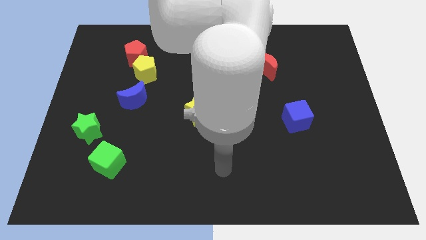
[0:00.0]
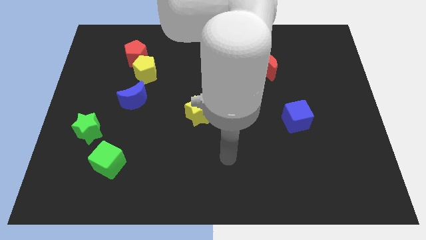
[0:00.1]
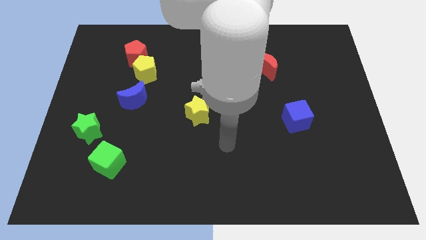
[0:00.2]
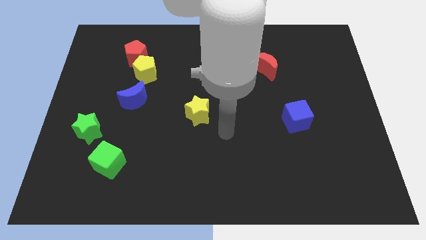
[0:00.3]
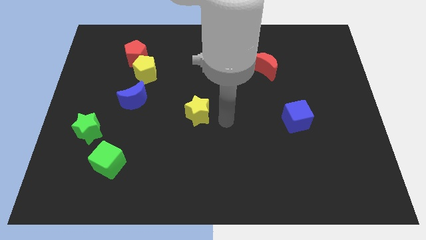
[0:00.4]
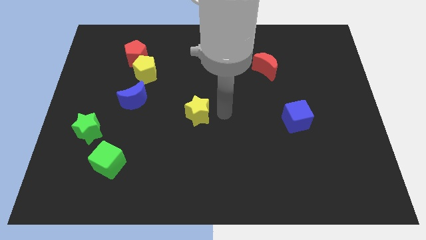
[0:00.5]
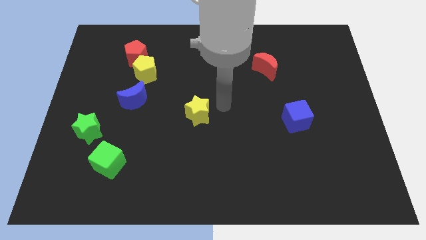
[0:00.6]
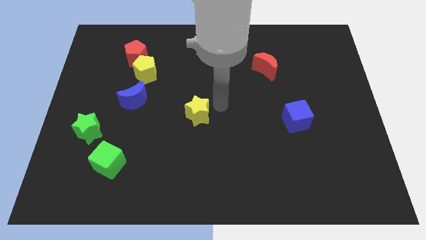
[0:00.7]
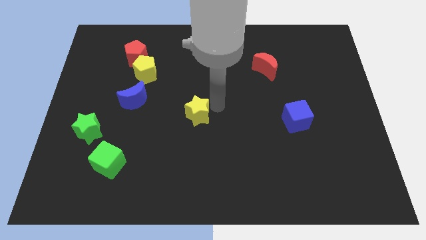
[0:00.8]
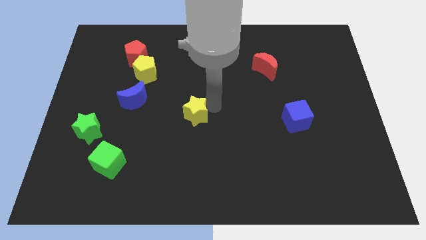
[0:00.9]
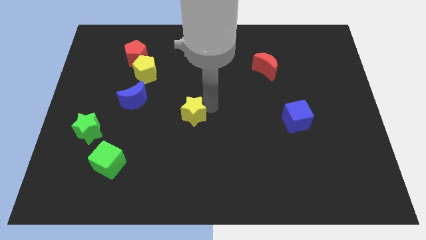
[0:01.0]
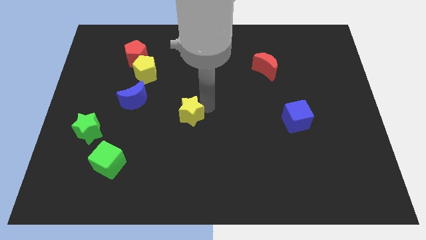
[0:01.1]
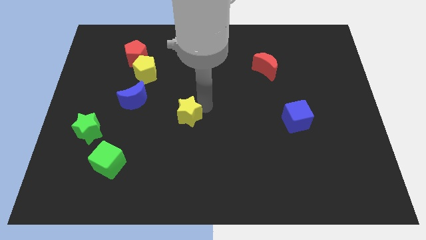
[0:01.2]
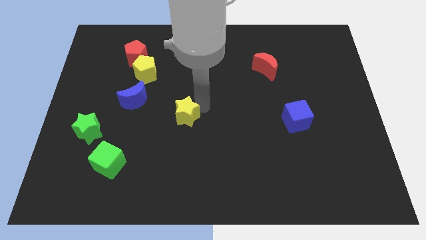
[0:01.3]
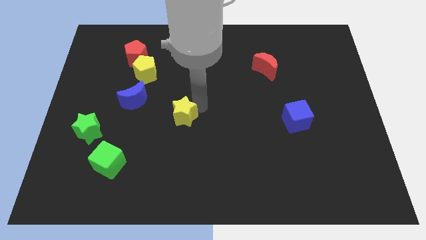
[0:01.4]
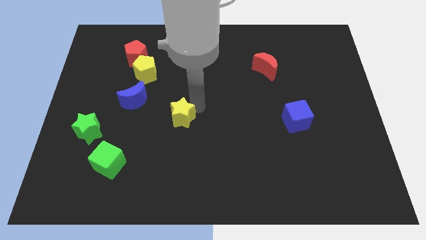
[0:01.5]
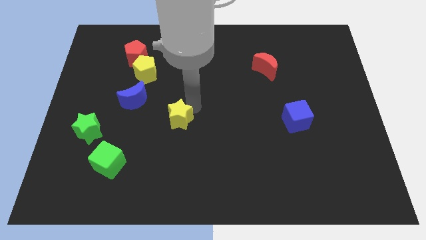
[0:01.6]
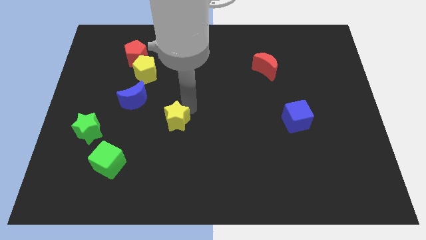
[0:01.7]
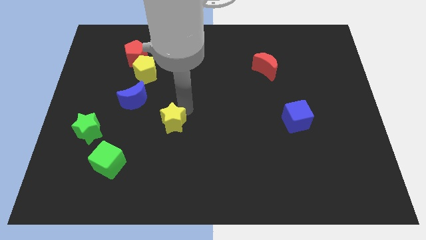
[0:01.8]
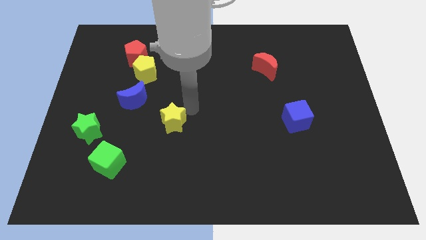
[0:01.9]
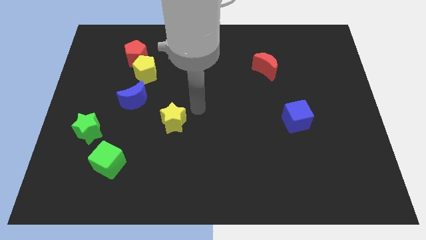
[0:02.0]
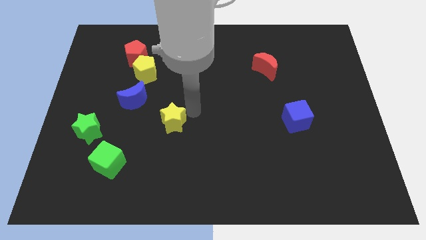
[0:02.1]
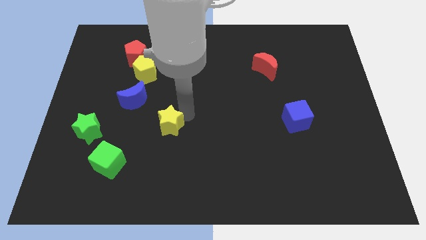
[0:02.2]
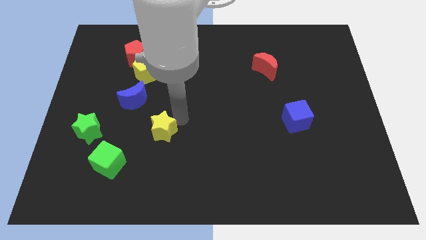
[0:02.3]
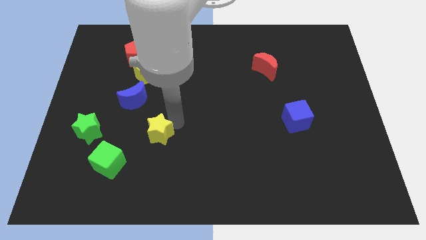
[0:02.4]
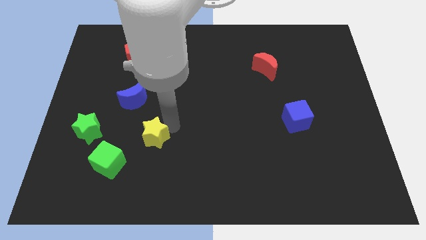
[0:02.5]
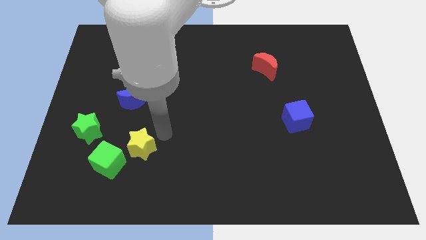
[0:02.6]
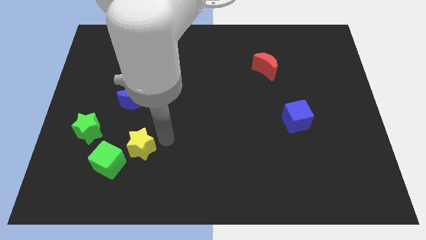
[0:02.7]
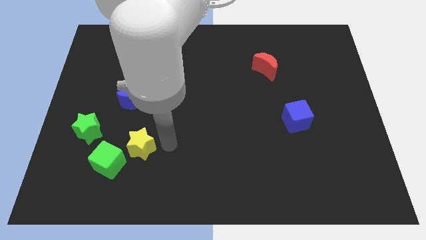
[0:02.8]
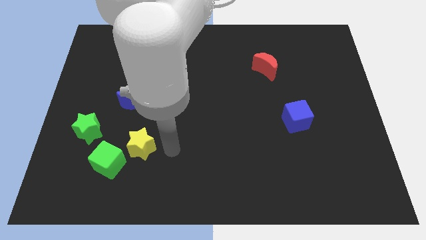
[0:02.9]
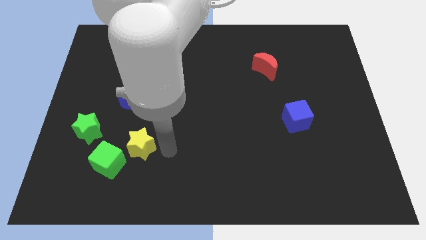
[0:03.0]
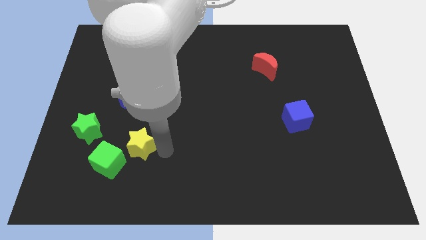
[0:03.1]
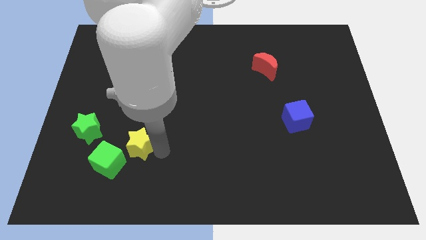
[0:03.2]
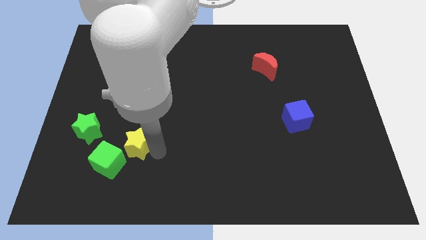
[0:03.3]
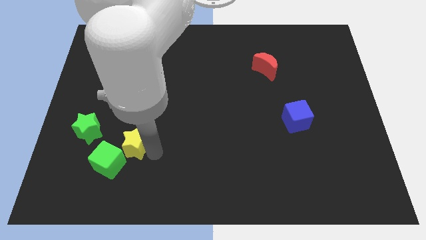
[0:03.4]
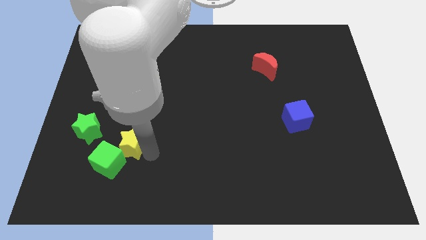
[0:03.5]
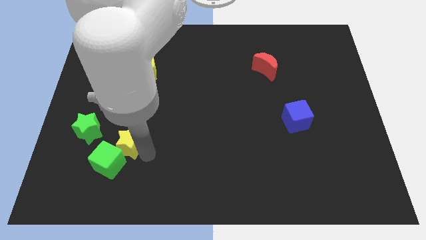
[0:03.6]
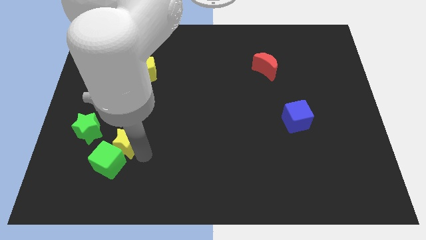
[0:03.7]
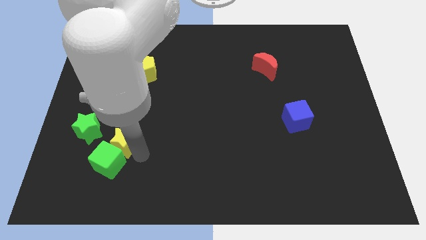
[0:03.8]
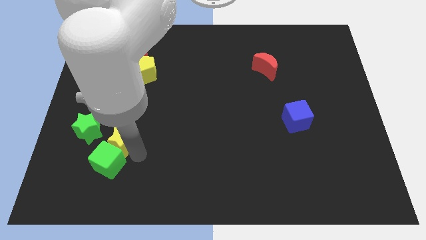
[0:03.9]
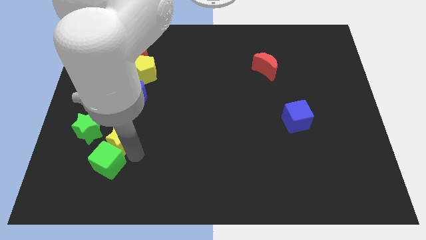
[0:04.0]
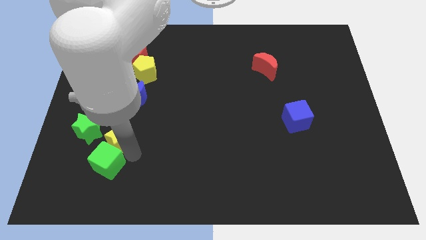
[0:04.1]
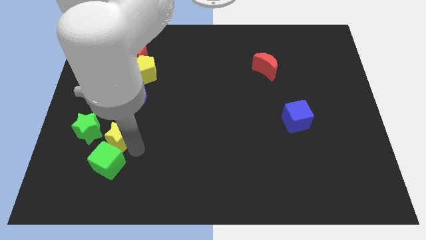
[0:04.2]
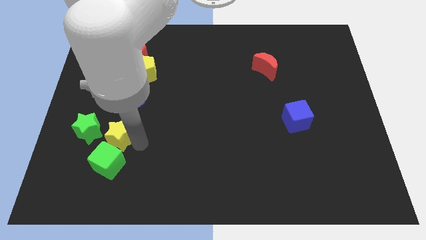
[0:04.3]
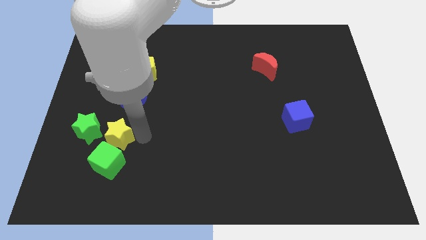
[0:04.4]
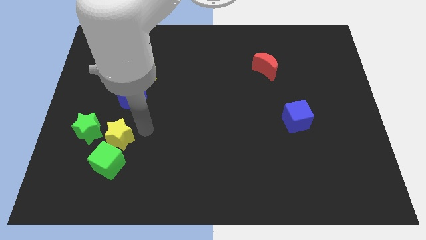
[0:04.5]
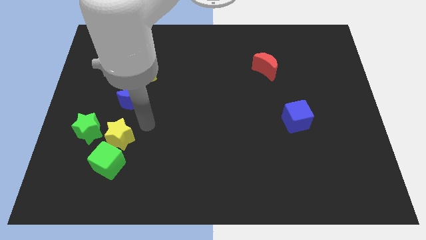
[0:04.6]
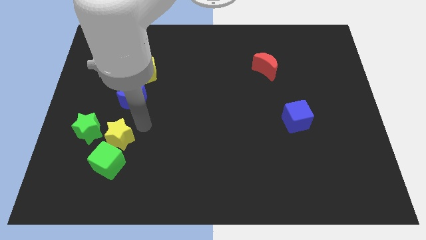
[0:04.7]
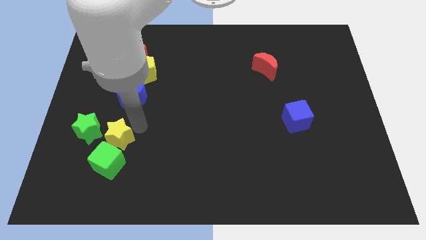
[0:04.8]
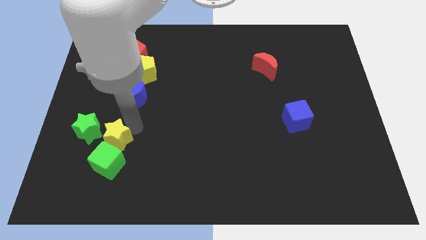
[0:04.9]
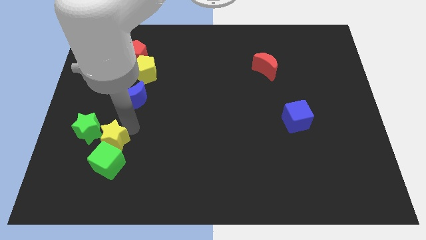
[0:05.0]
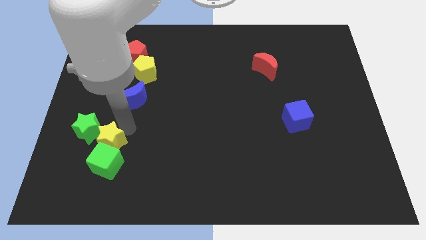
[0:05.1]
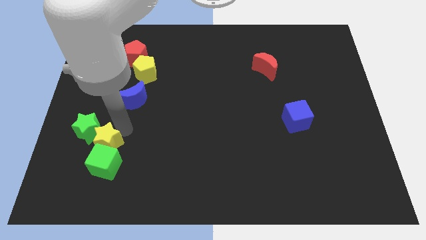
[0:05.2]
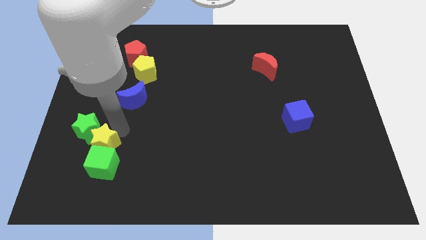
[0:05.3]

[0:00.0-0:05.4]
put the yellow star to the bottom side of the green star

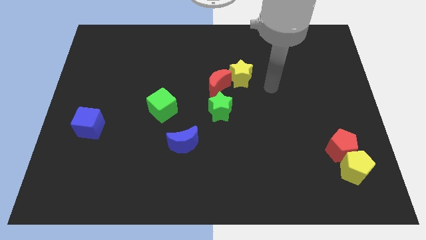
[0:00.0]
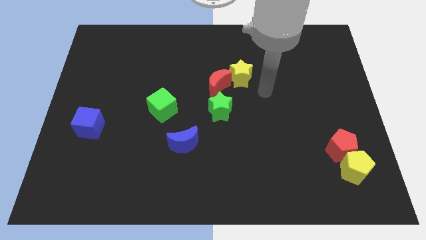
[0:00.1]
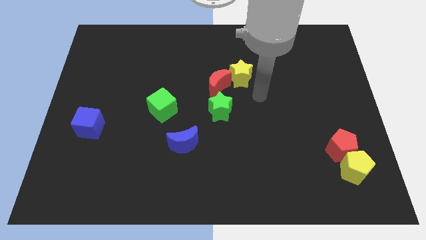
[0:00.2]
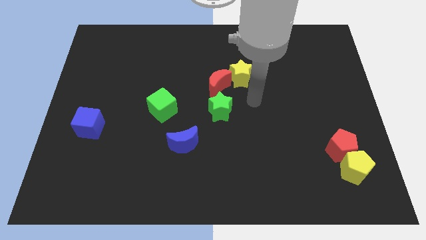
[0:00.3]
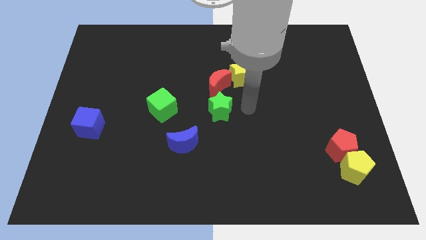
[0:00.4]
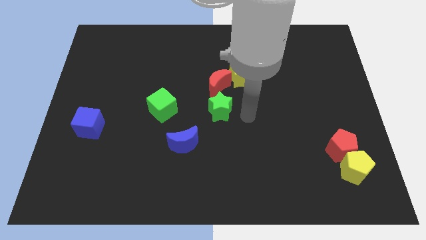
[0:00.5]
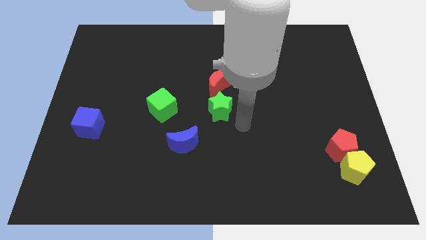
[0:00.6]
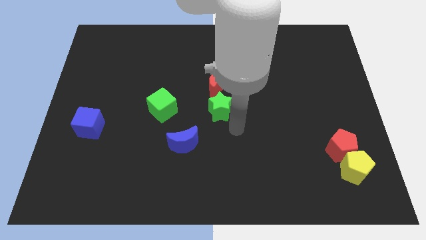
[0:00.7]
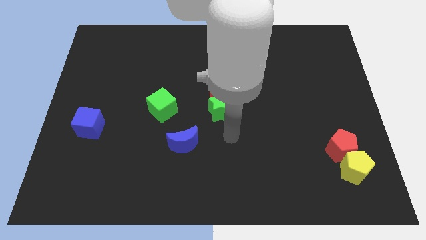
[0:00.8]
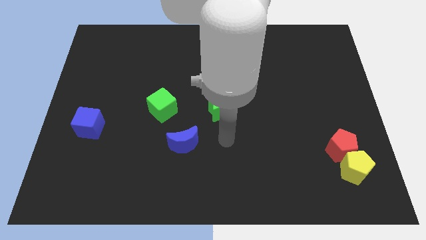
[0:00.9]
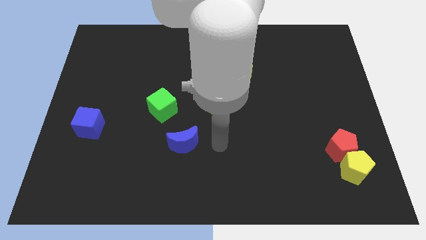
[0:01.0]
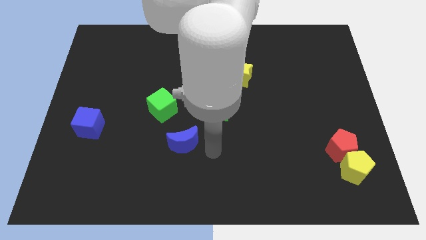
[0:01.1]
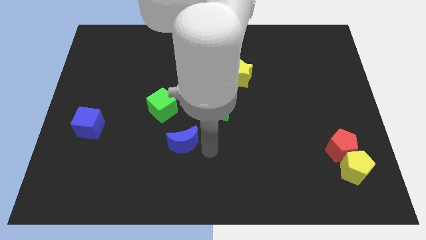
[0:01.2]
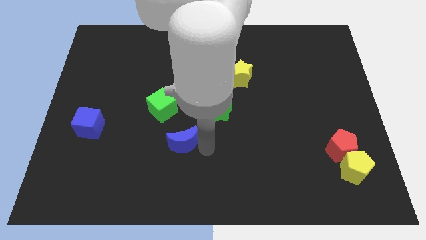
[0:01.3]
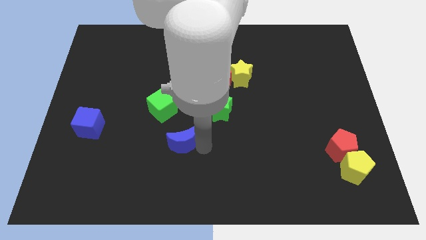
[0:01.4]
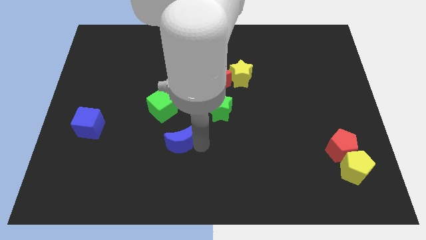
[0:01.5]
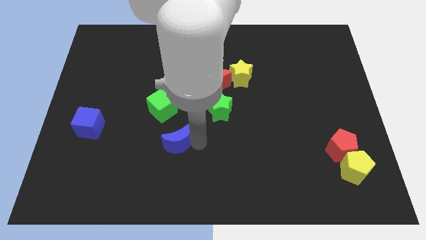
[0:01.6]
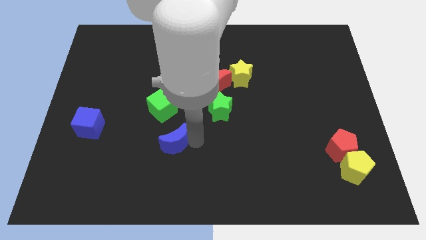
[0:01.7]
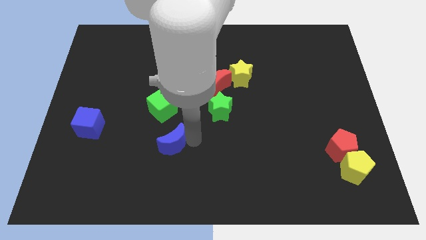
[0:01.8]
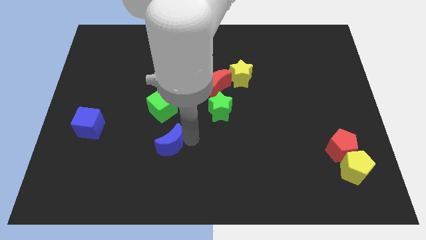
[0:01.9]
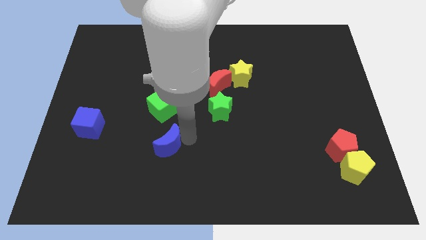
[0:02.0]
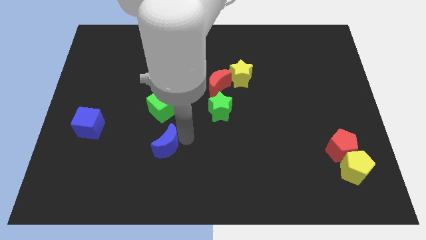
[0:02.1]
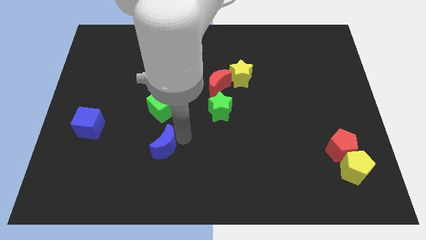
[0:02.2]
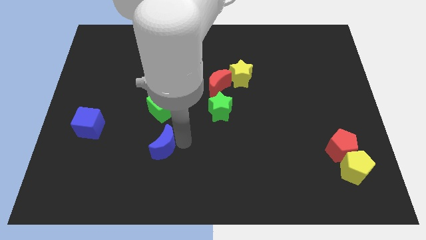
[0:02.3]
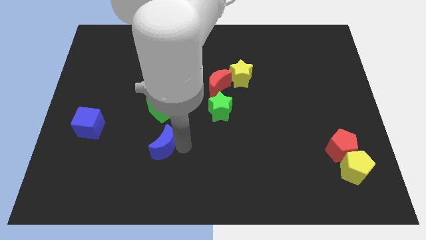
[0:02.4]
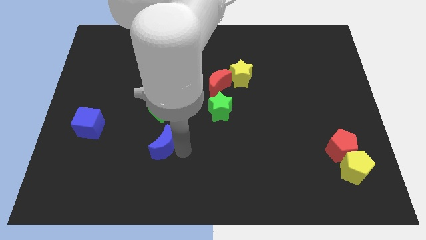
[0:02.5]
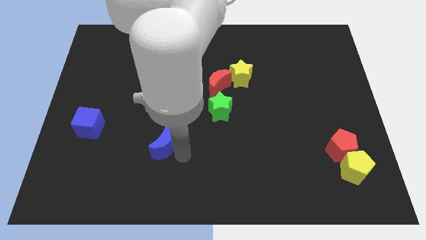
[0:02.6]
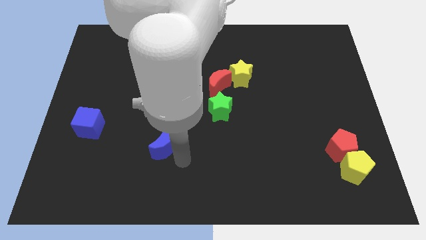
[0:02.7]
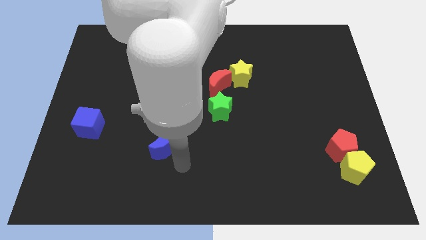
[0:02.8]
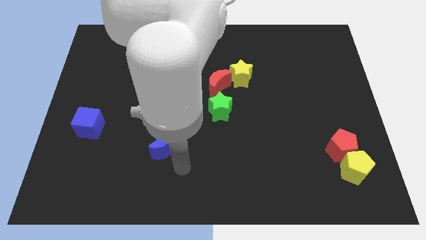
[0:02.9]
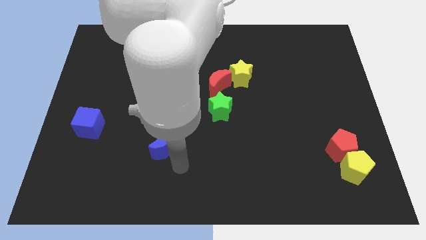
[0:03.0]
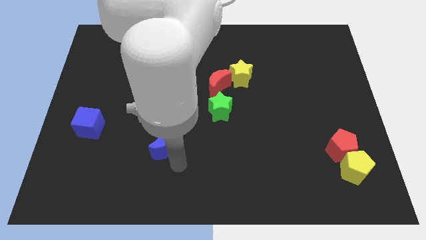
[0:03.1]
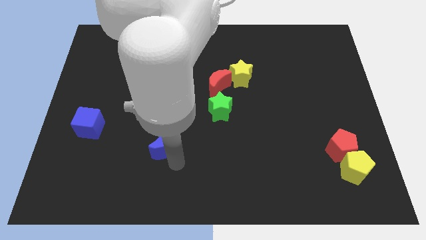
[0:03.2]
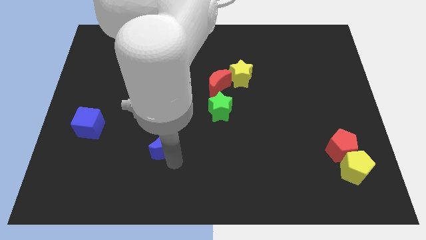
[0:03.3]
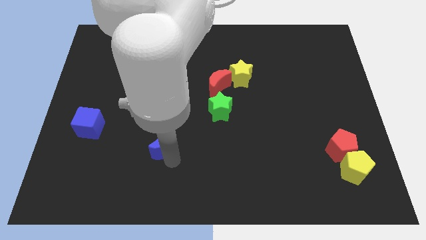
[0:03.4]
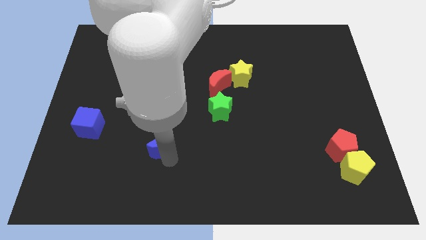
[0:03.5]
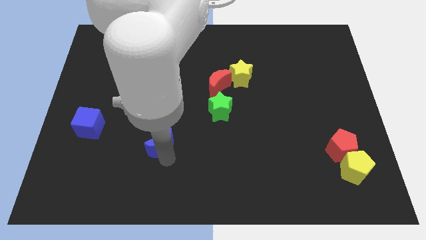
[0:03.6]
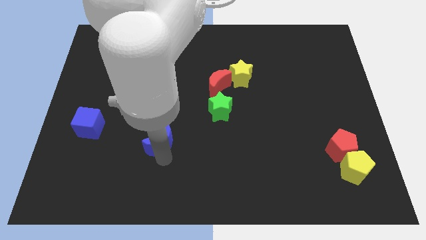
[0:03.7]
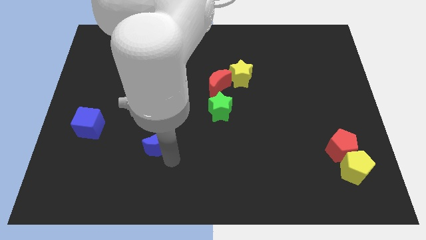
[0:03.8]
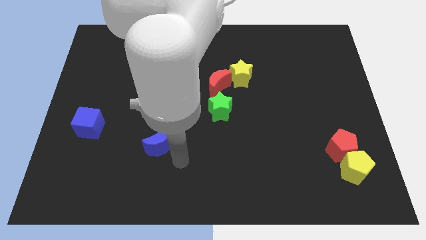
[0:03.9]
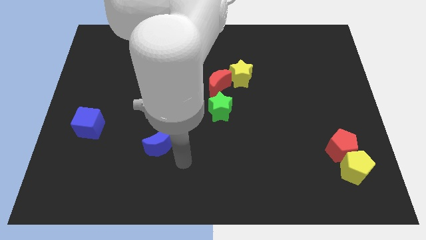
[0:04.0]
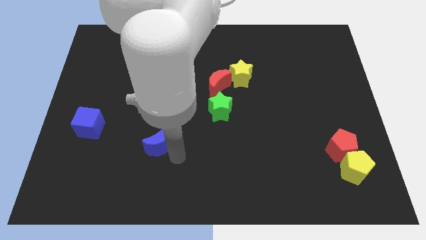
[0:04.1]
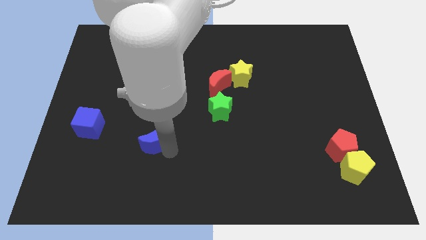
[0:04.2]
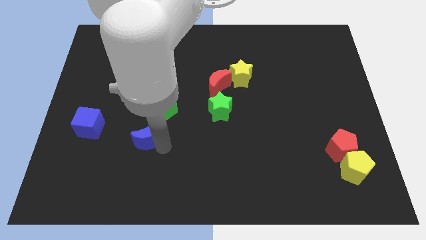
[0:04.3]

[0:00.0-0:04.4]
slide the blue moon to the right of the blue cube
